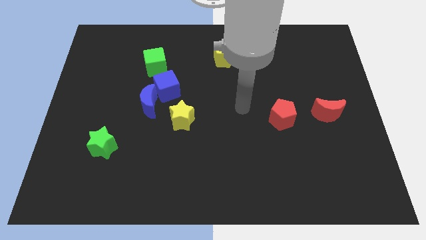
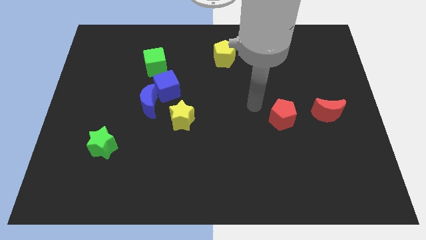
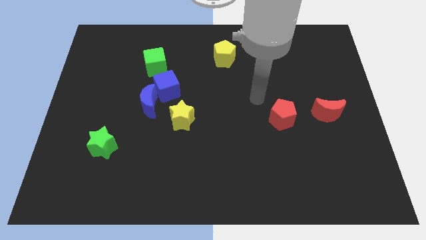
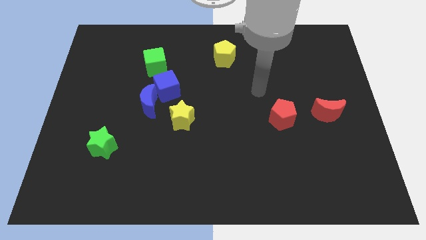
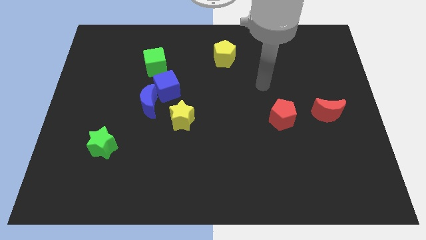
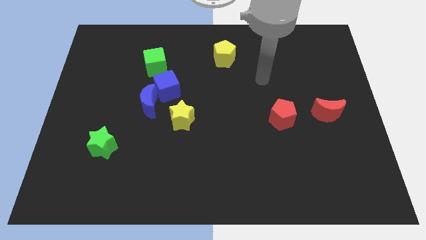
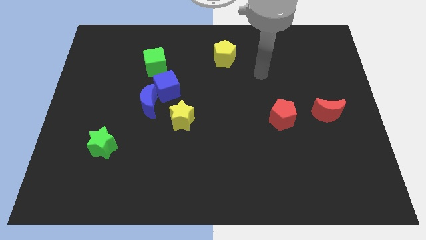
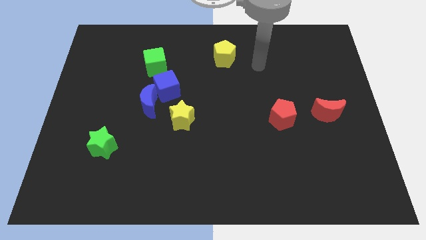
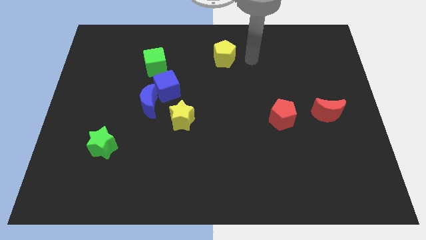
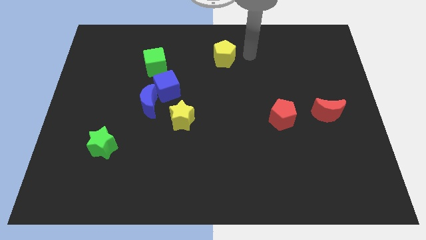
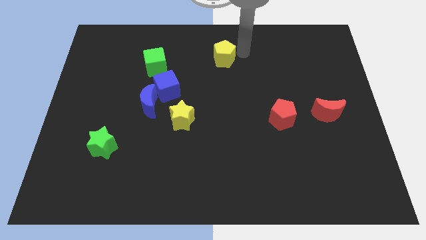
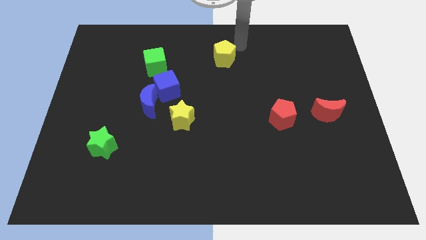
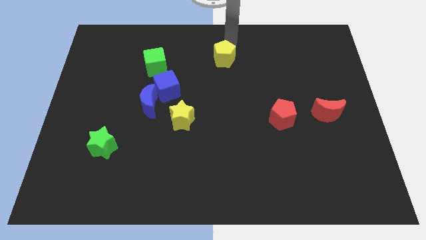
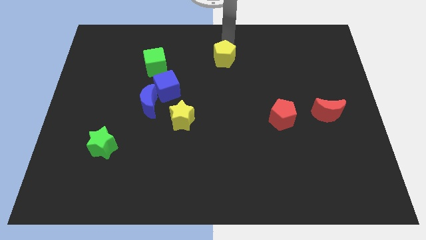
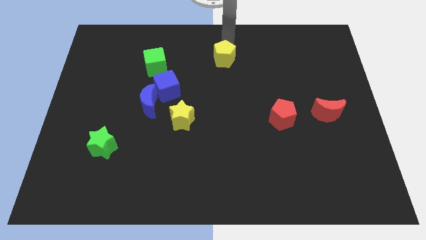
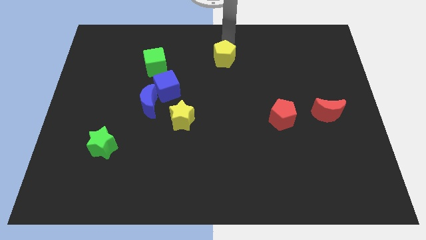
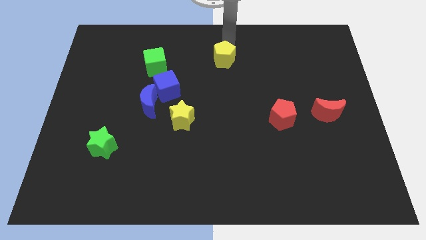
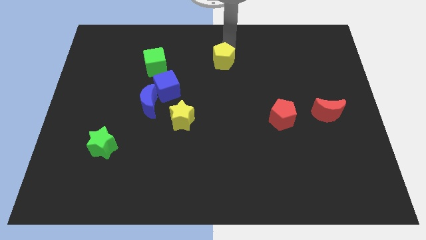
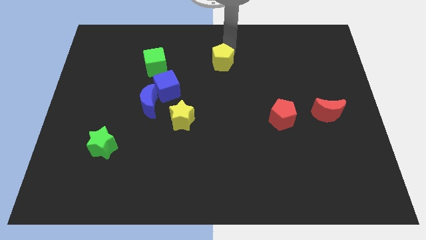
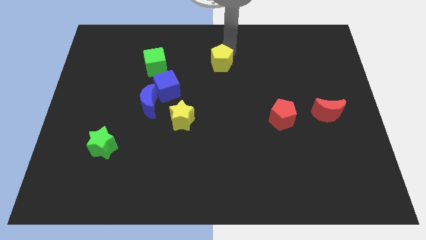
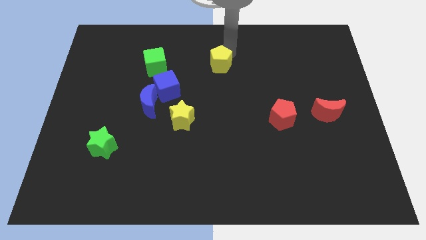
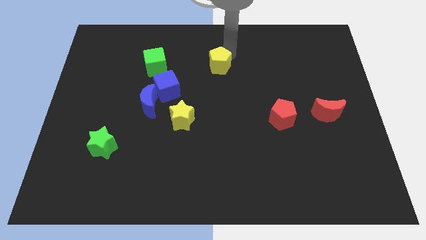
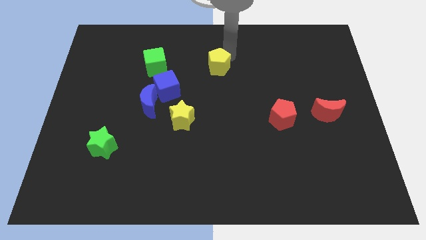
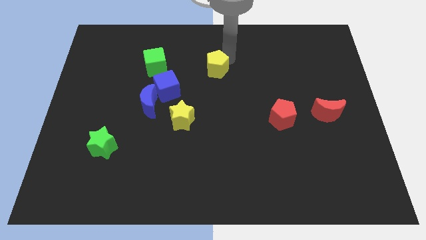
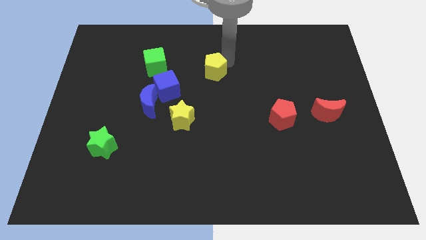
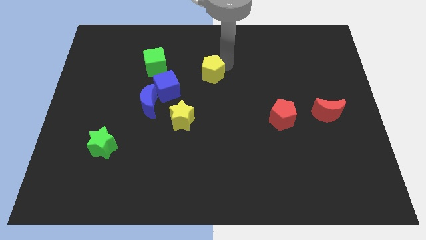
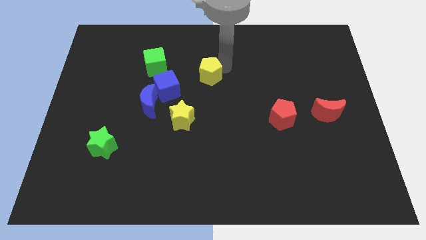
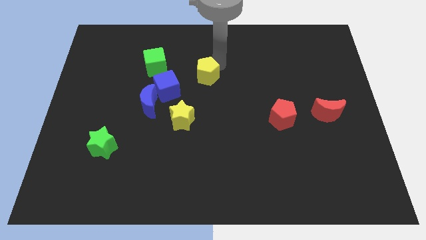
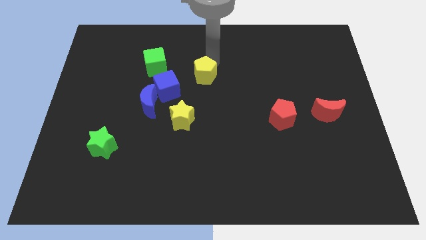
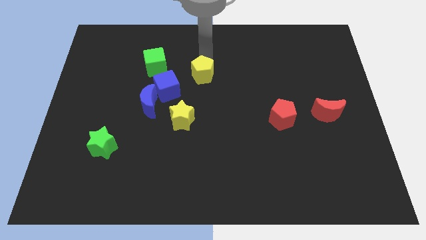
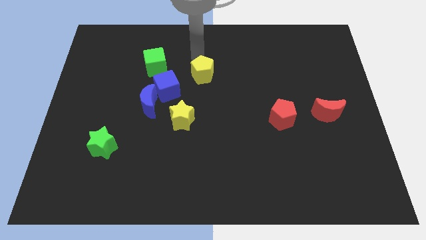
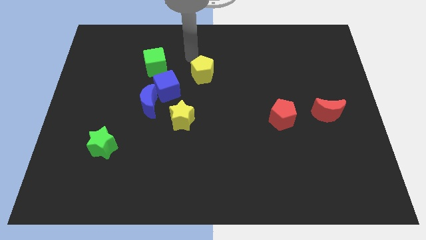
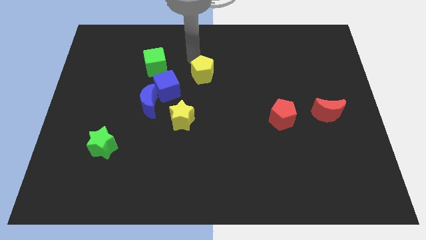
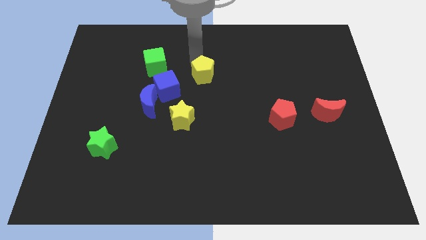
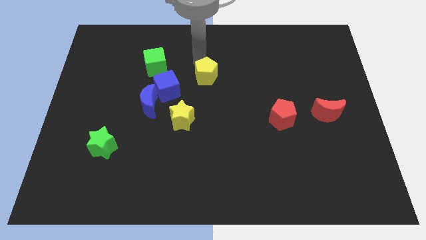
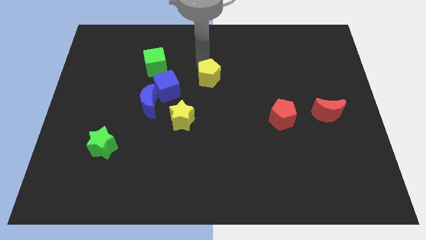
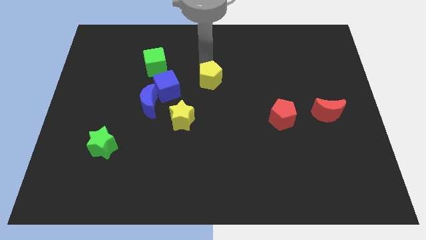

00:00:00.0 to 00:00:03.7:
slightly move the yellow pentagon down

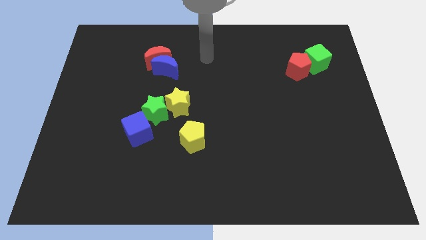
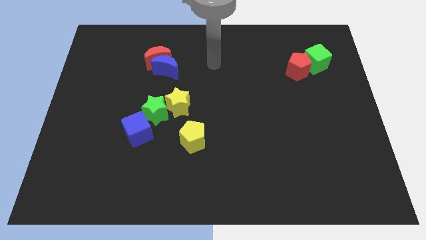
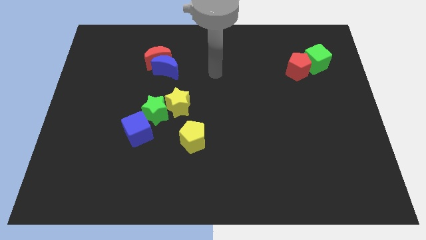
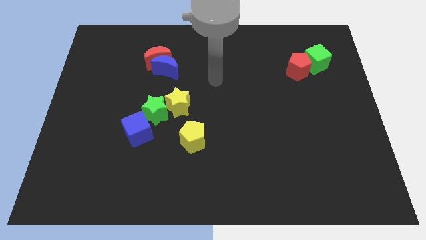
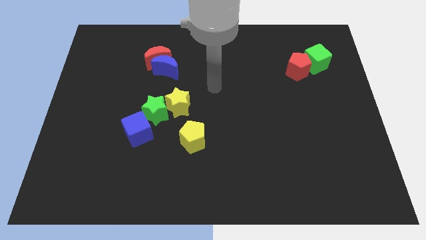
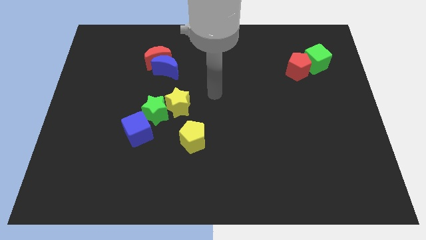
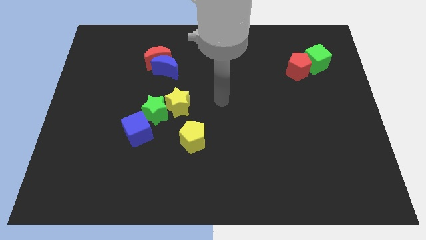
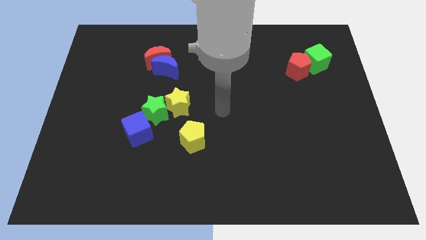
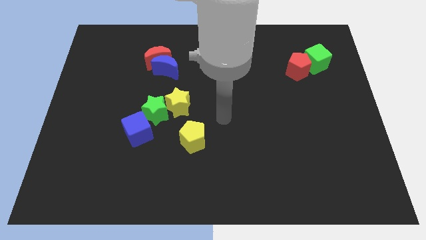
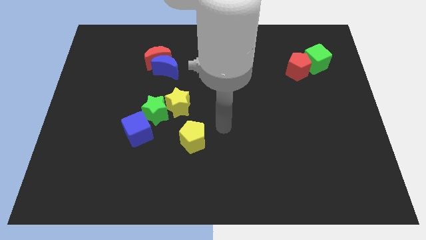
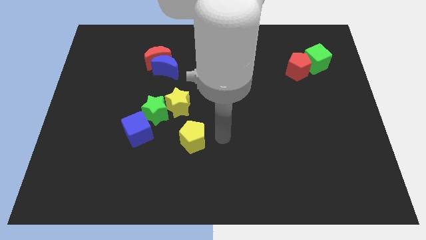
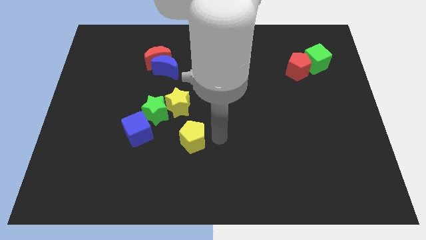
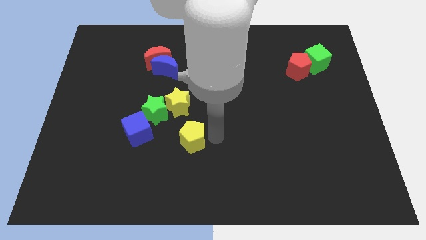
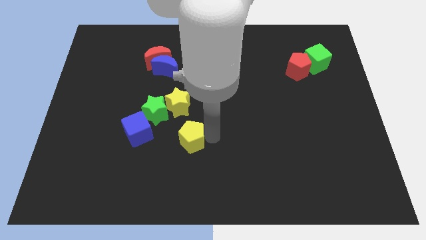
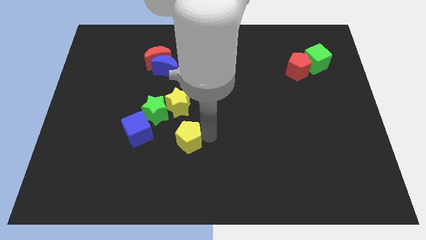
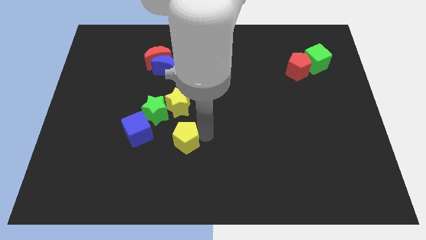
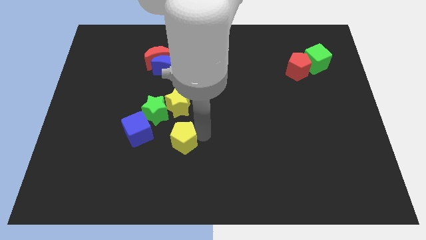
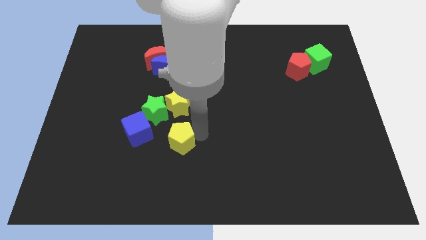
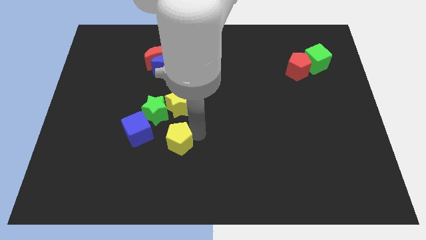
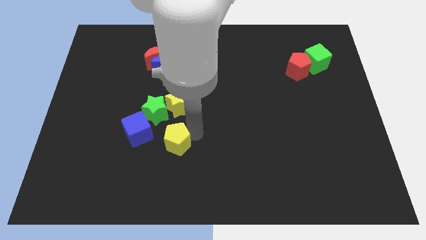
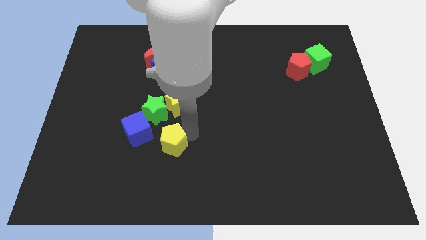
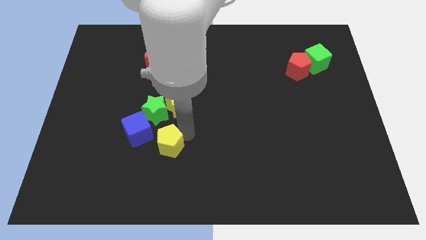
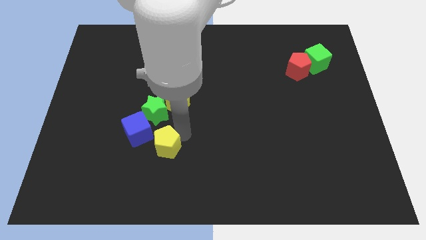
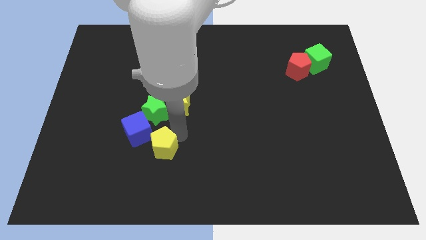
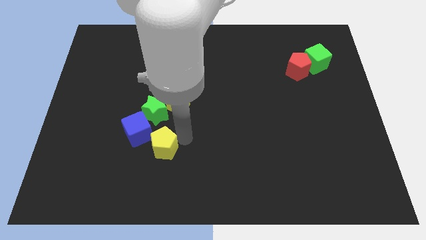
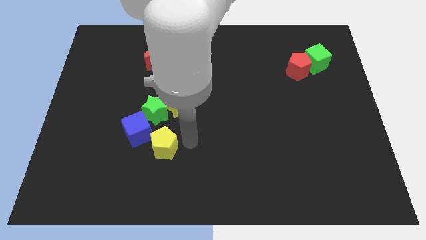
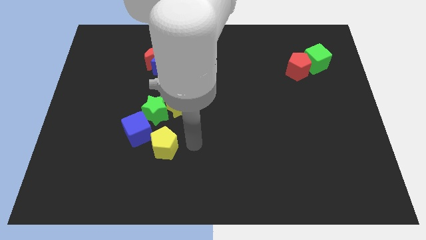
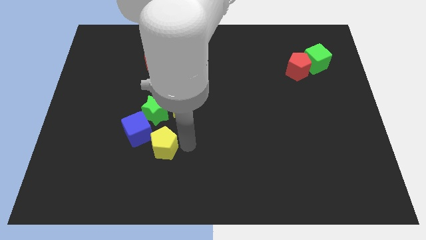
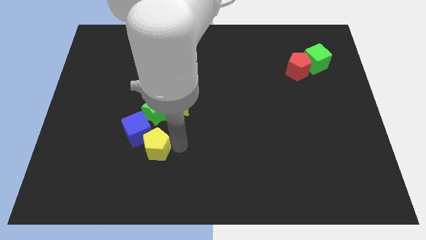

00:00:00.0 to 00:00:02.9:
slightly move the yellow pentagon to the left

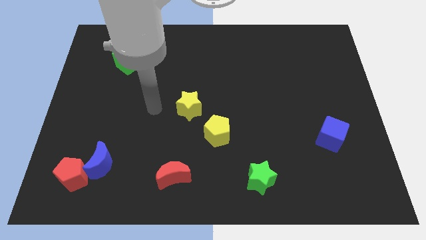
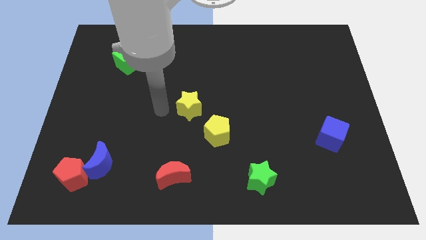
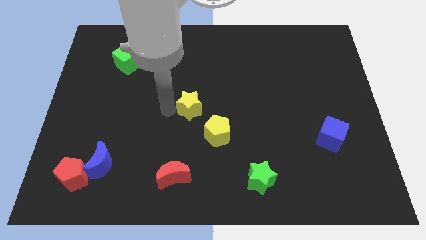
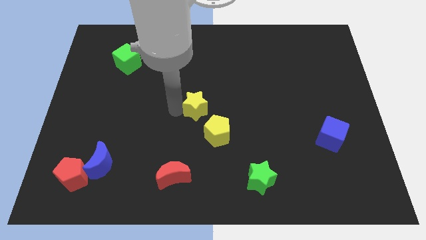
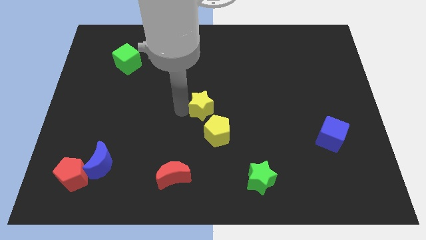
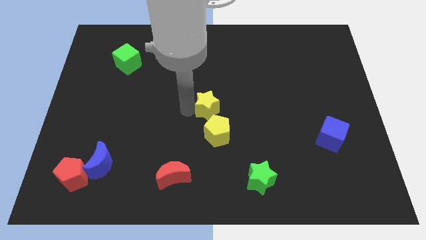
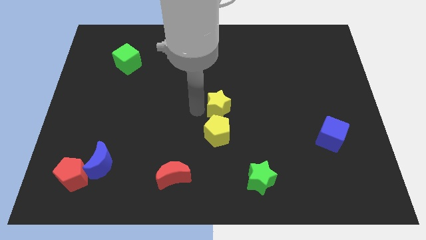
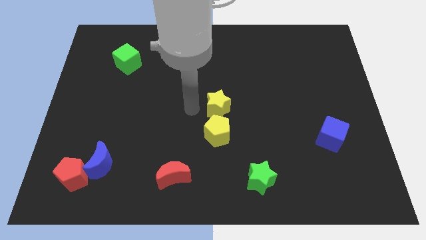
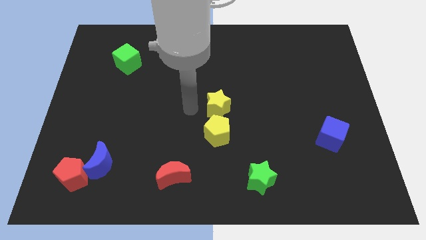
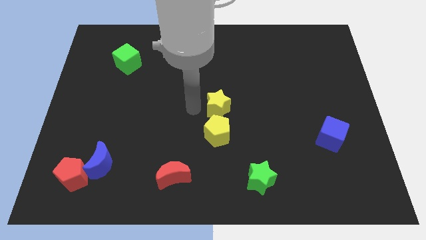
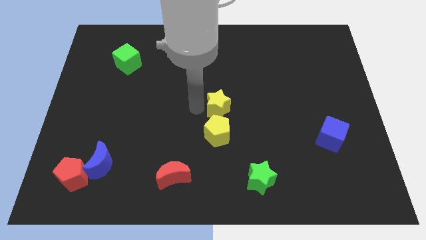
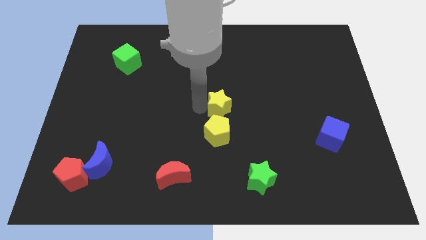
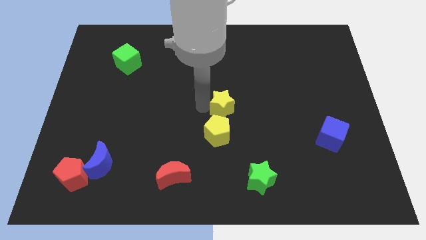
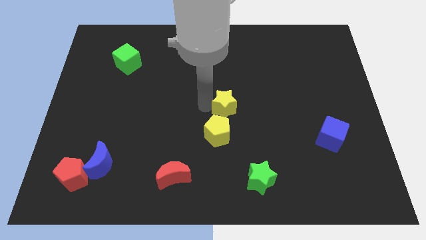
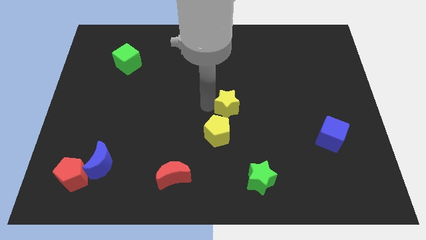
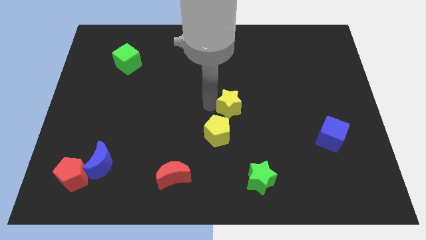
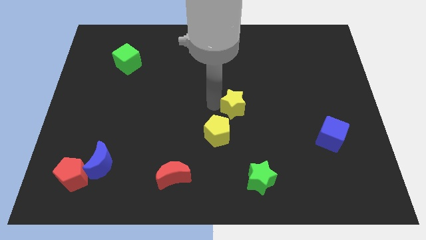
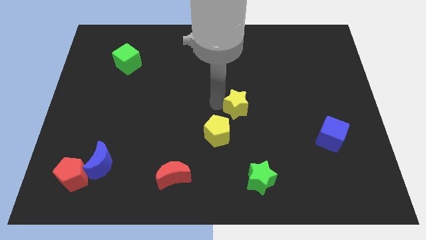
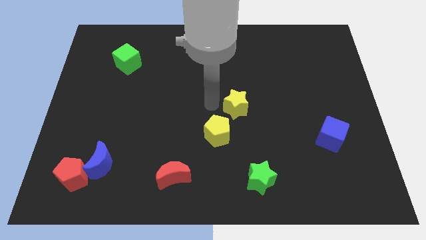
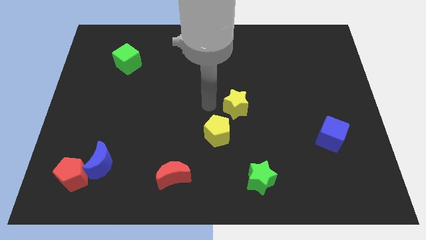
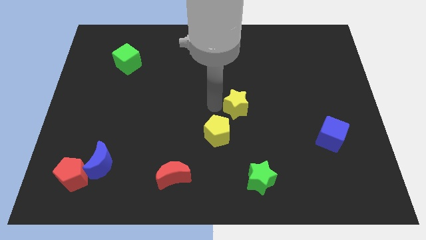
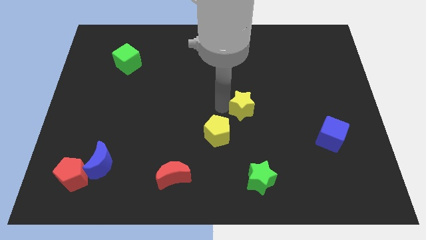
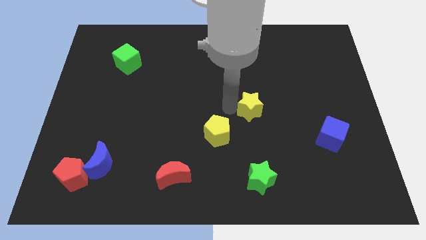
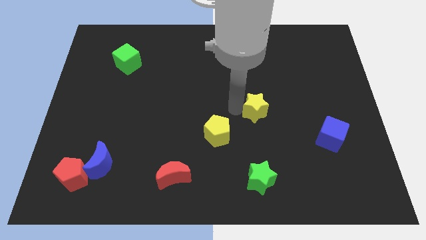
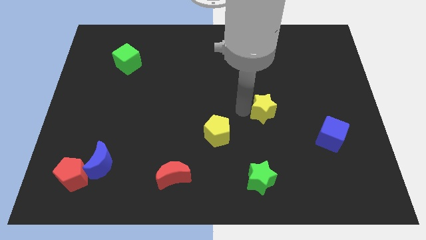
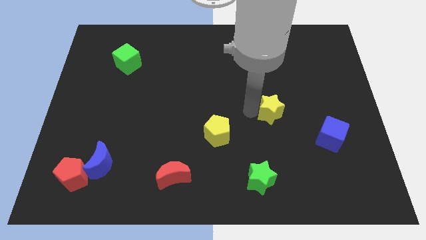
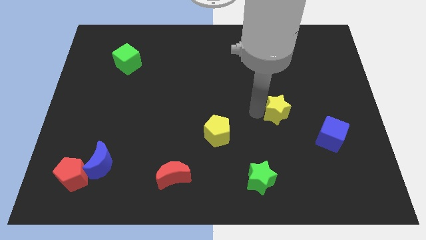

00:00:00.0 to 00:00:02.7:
slide the yellow star right
